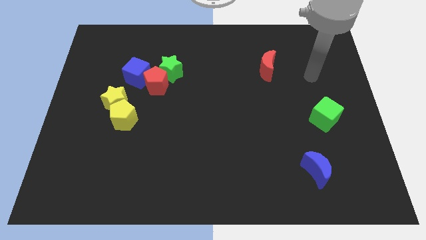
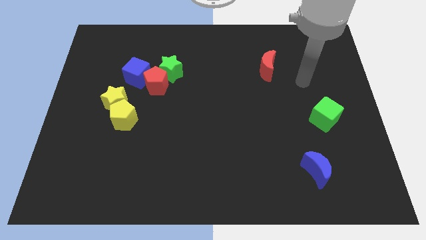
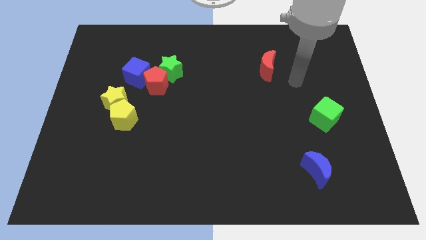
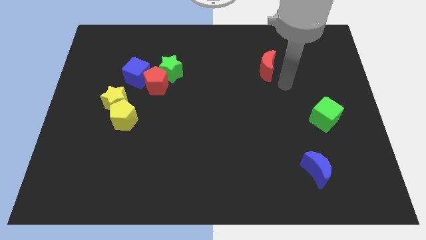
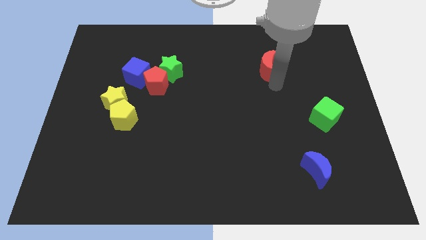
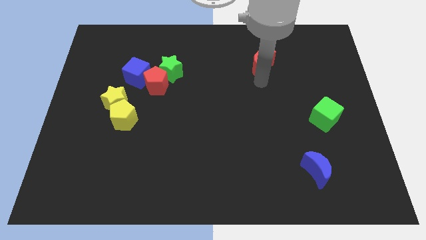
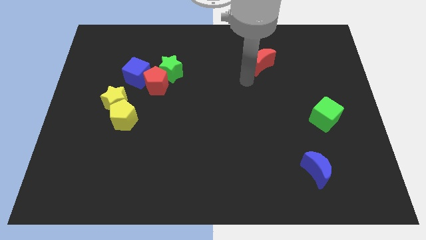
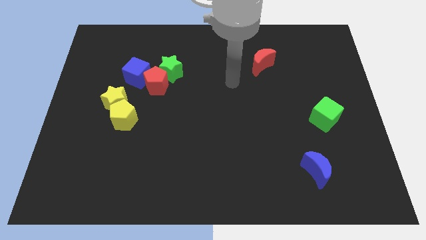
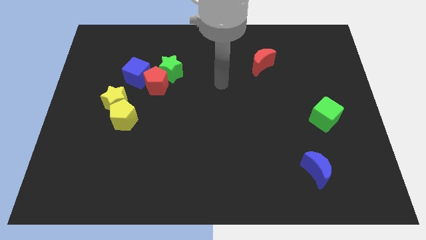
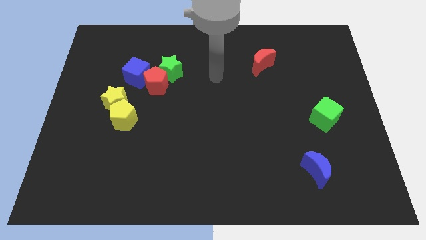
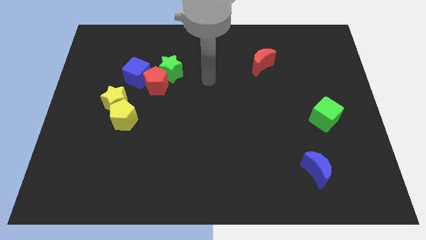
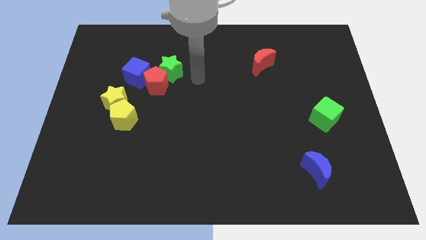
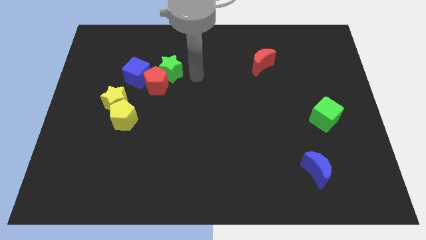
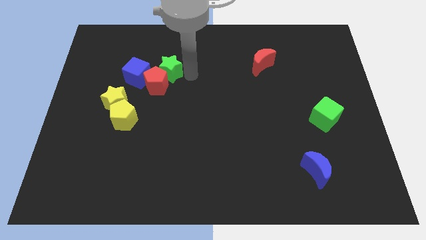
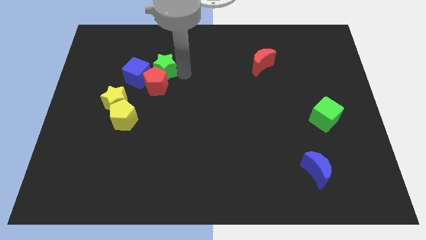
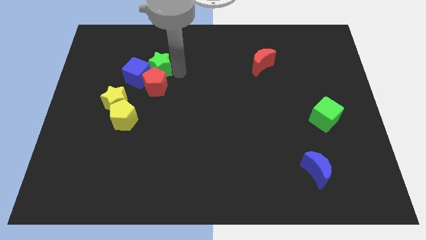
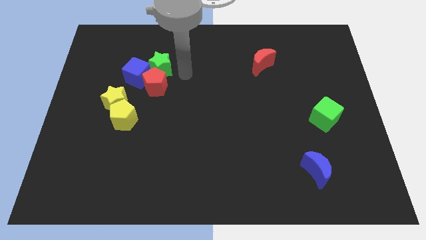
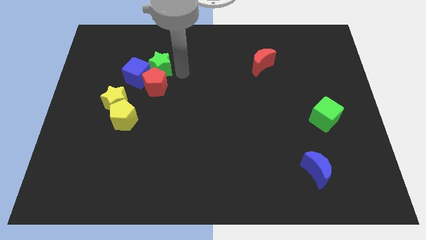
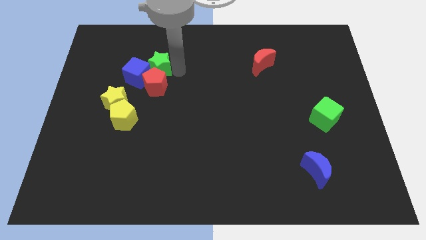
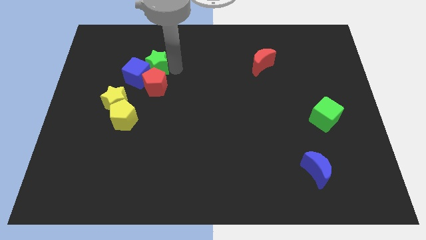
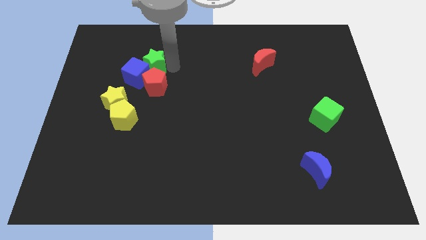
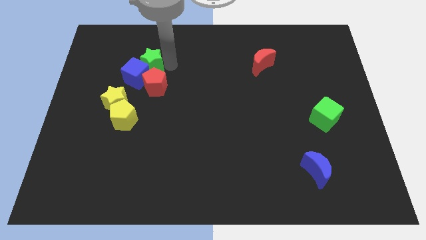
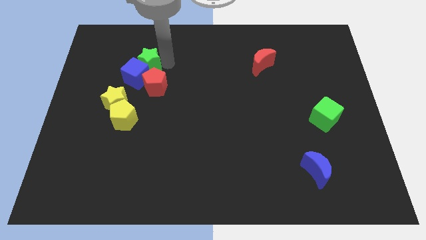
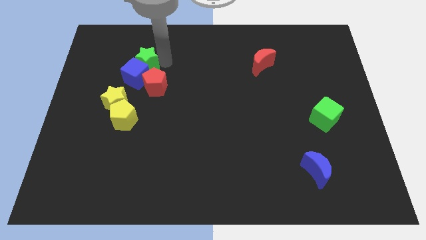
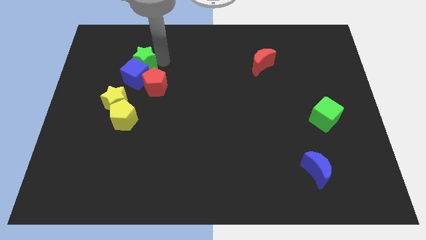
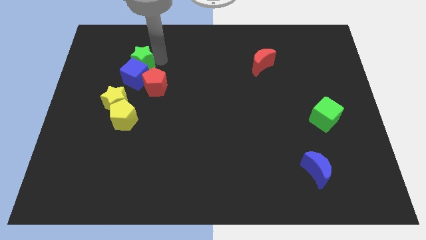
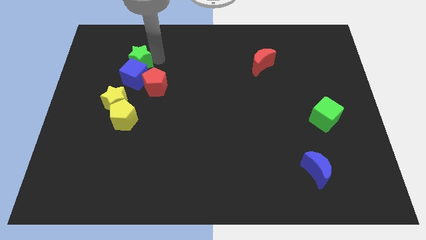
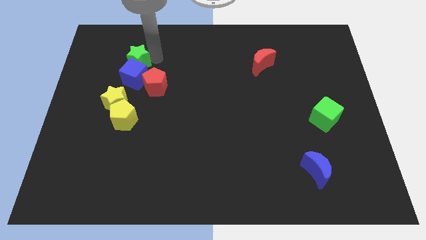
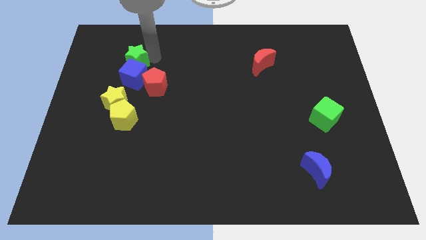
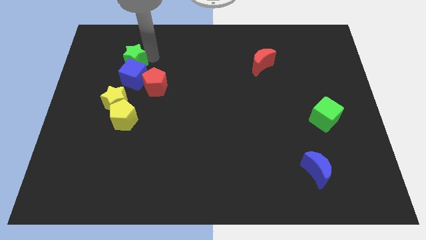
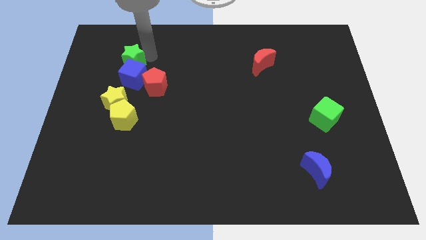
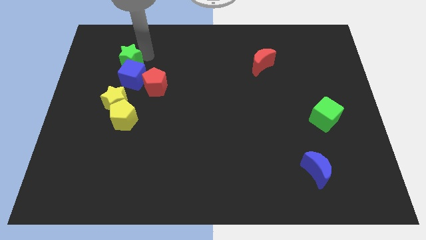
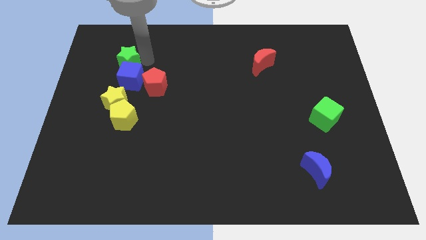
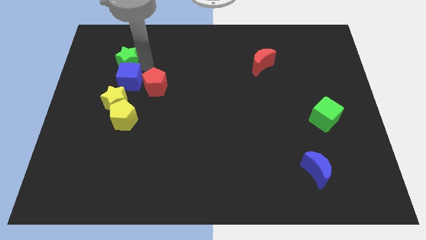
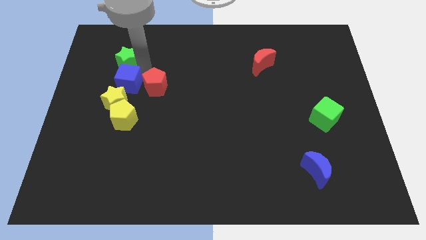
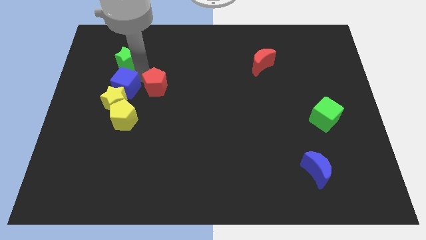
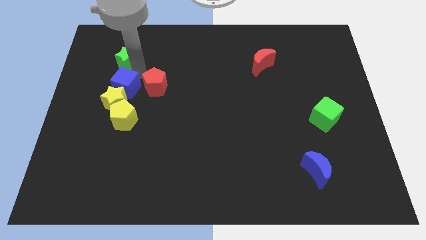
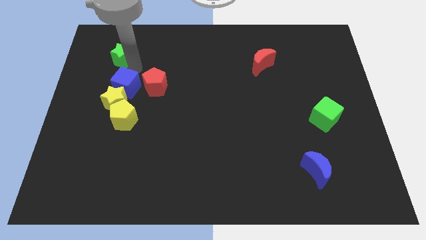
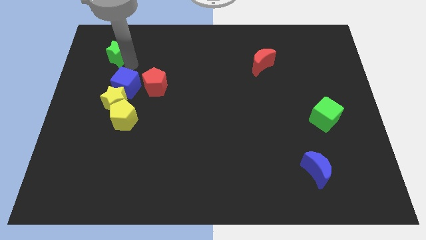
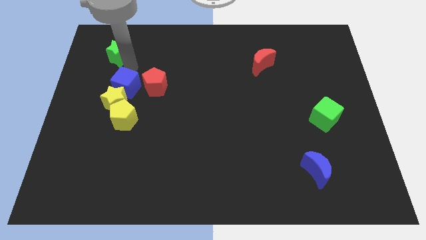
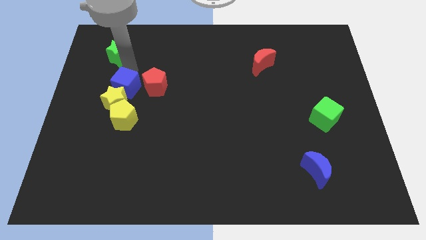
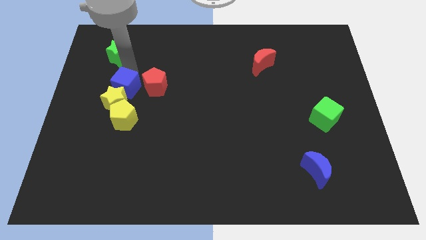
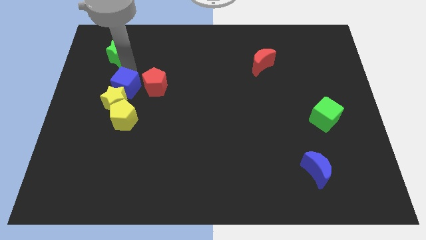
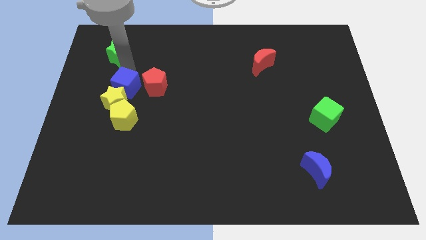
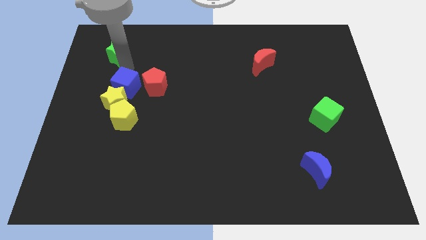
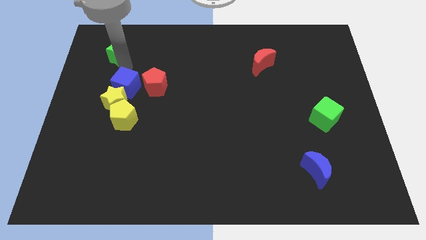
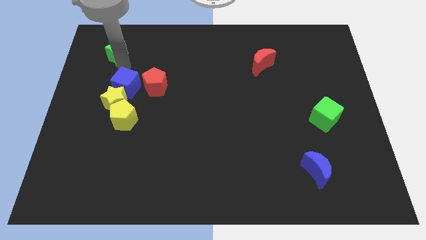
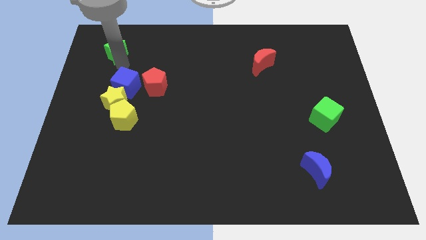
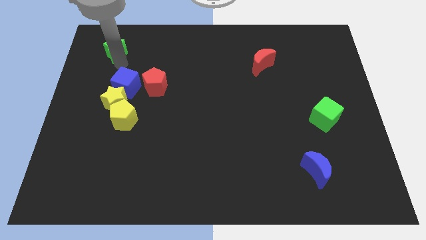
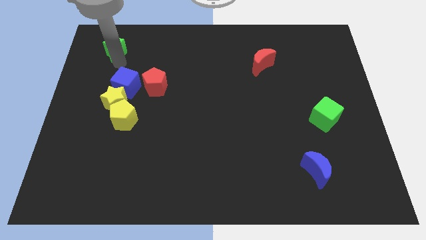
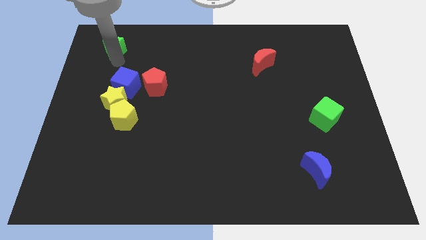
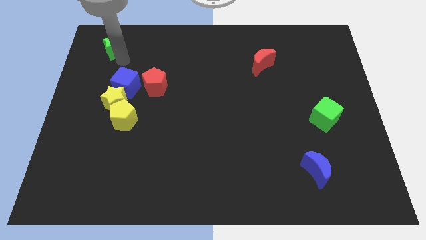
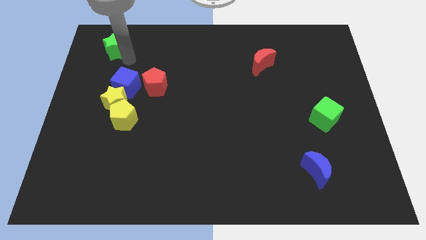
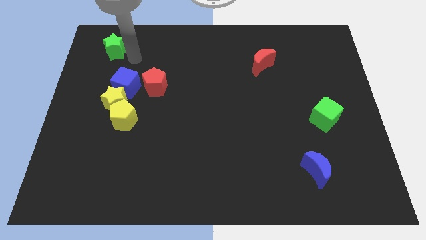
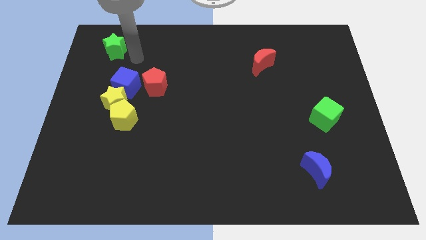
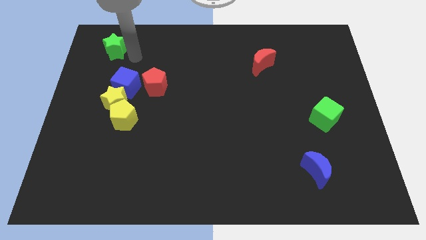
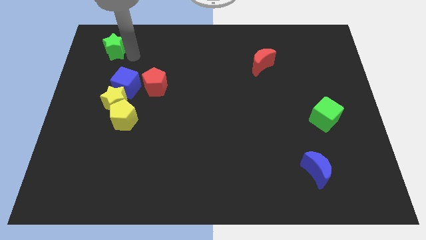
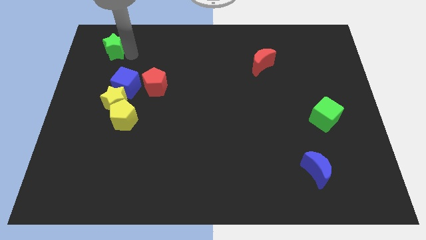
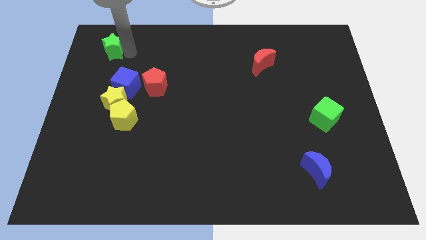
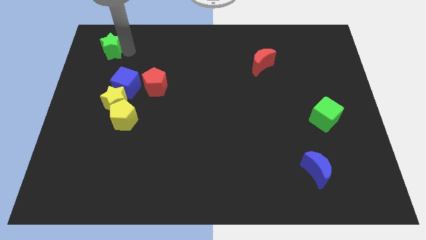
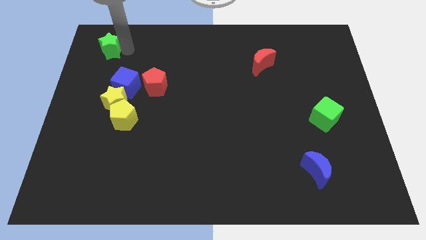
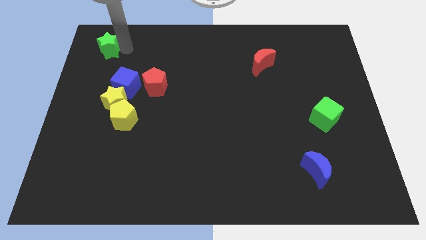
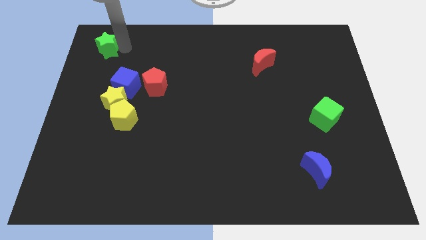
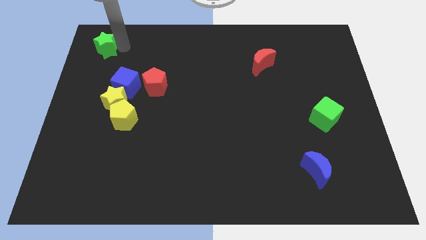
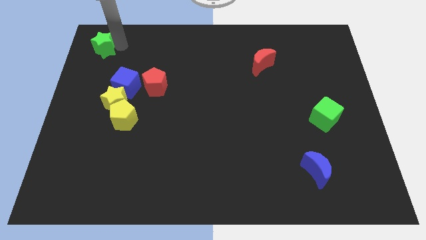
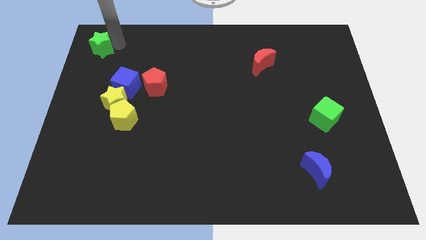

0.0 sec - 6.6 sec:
put the green star to the top left corner
